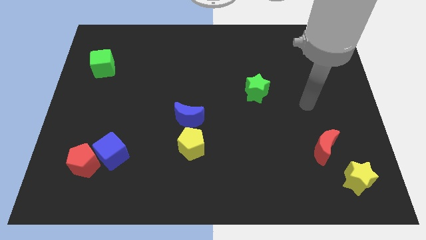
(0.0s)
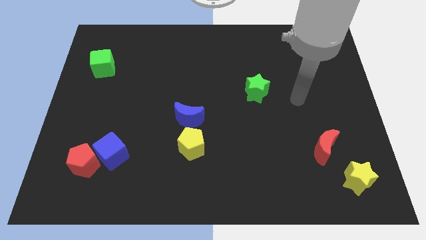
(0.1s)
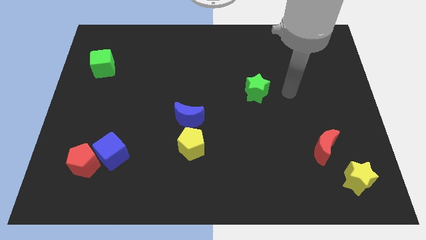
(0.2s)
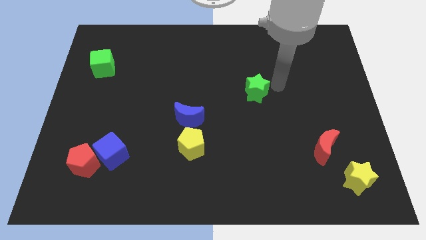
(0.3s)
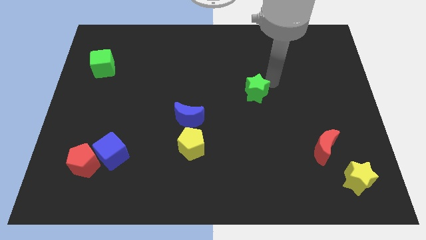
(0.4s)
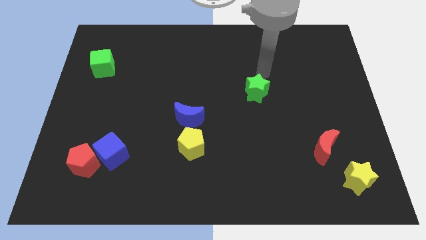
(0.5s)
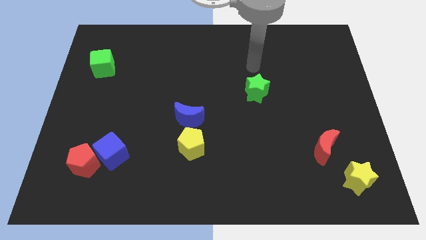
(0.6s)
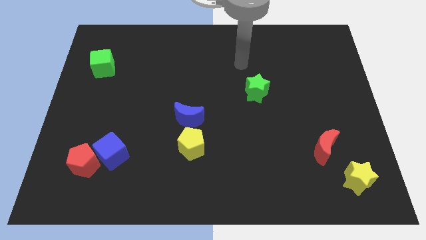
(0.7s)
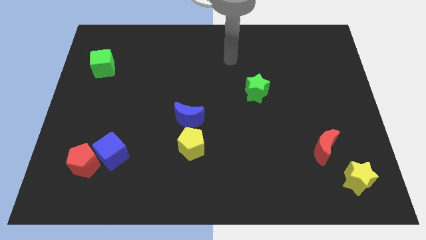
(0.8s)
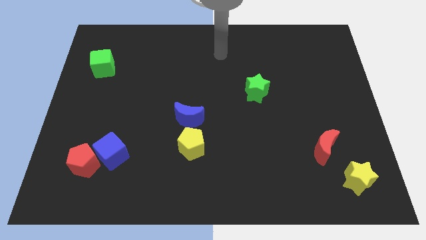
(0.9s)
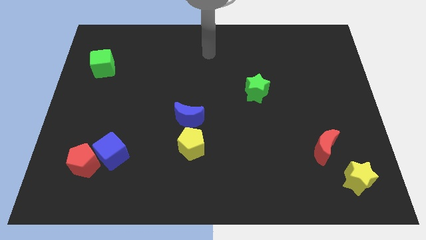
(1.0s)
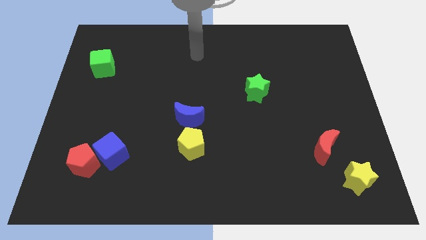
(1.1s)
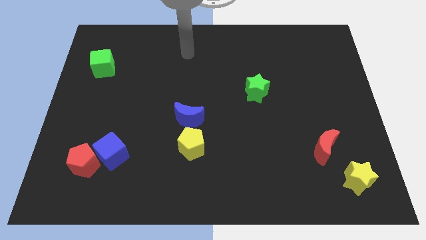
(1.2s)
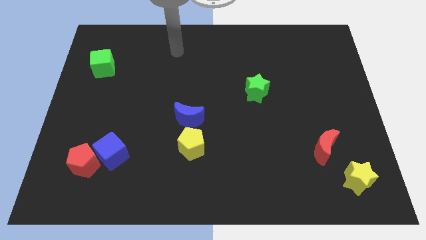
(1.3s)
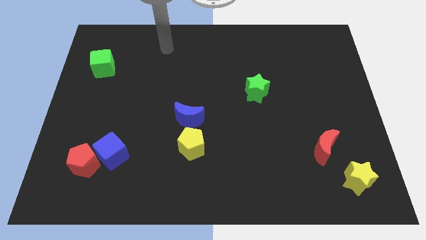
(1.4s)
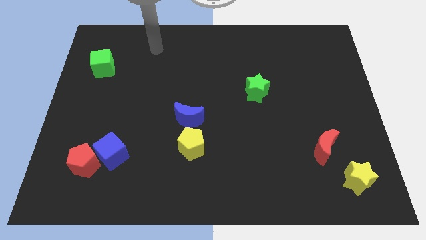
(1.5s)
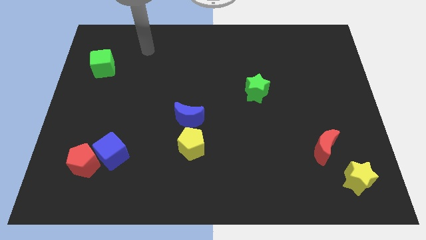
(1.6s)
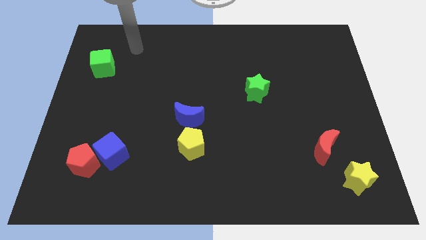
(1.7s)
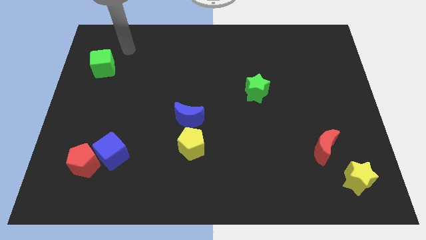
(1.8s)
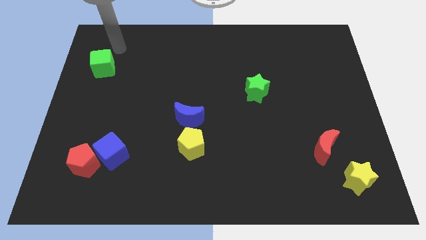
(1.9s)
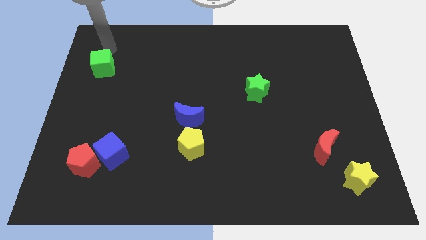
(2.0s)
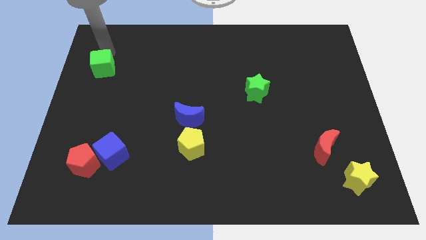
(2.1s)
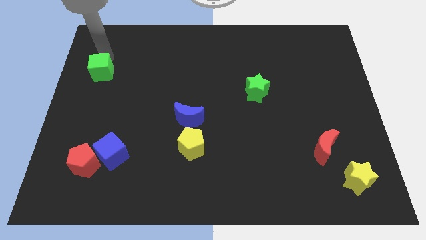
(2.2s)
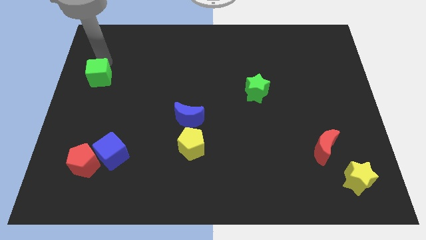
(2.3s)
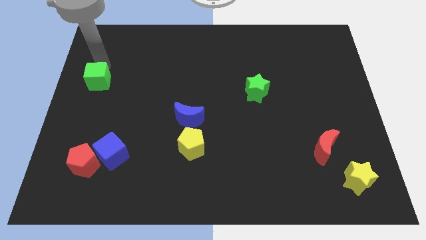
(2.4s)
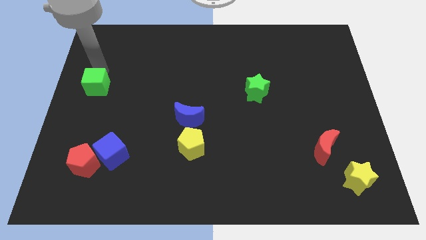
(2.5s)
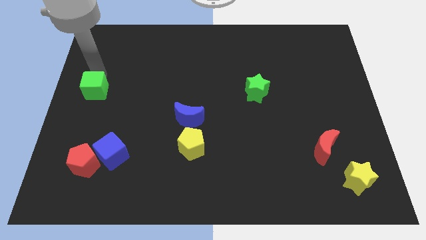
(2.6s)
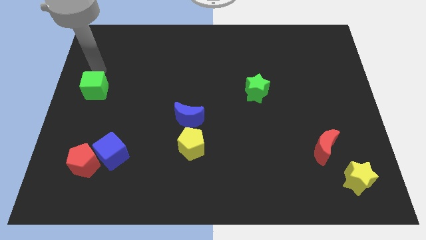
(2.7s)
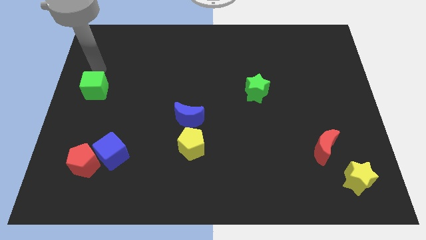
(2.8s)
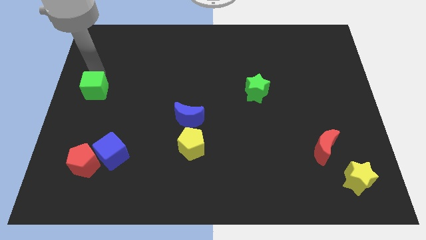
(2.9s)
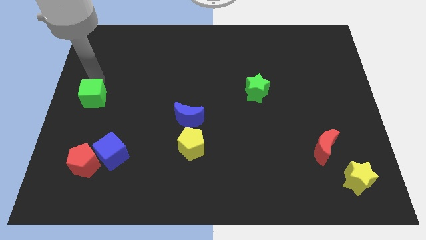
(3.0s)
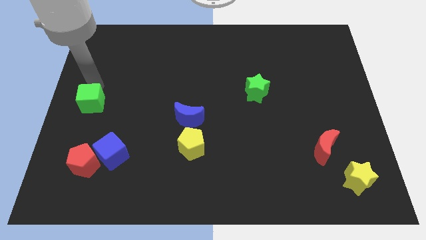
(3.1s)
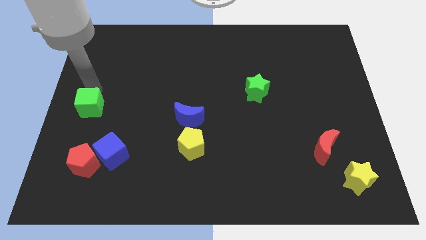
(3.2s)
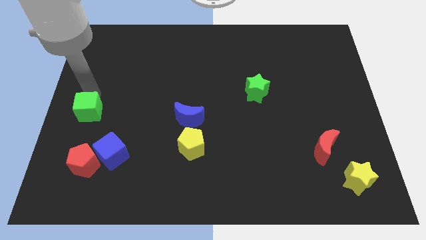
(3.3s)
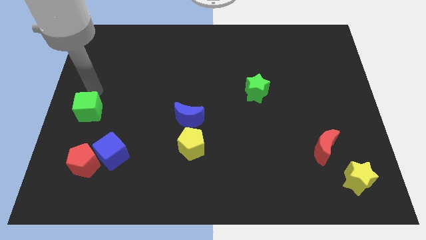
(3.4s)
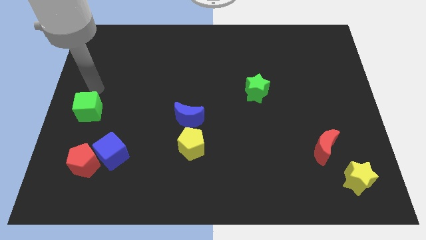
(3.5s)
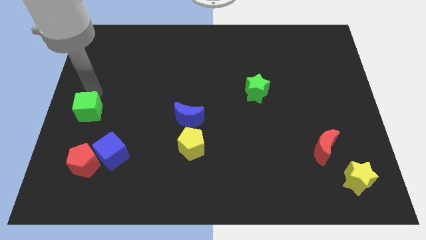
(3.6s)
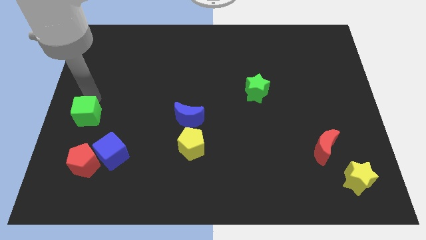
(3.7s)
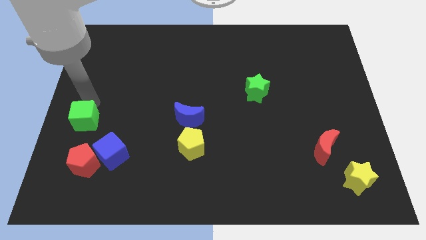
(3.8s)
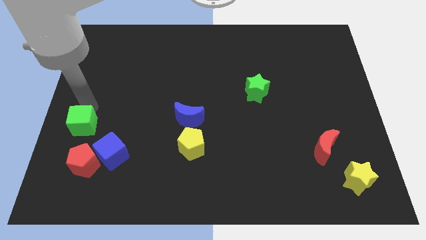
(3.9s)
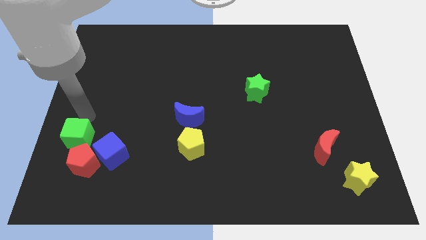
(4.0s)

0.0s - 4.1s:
push the green cube down

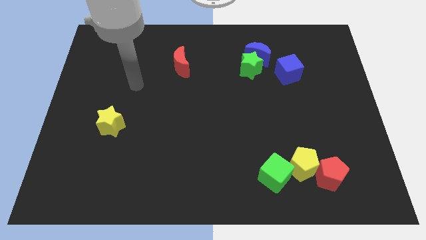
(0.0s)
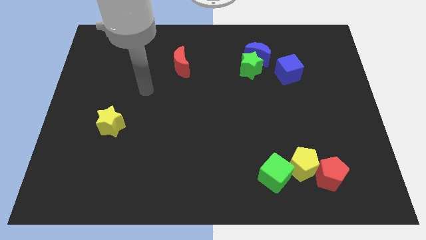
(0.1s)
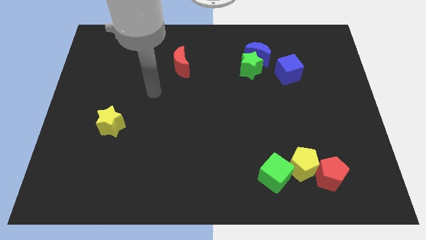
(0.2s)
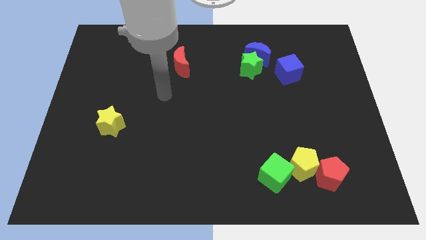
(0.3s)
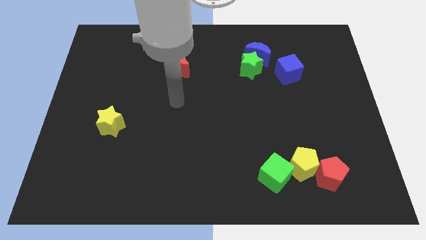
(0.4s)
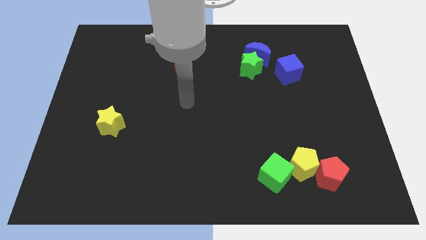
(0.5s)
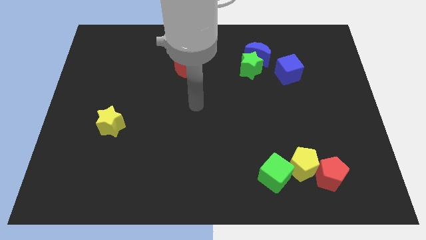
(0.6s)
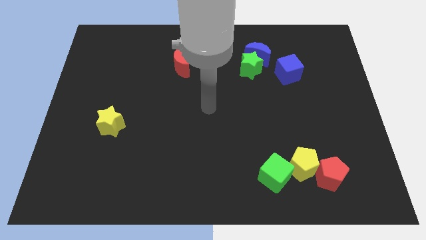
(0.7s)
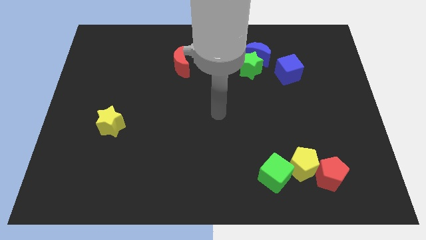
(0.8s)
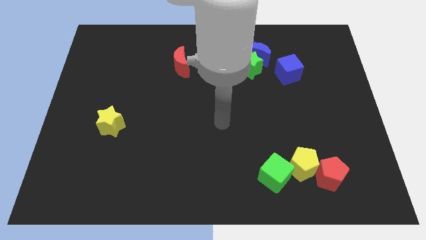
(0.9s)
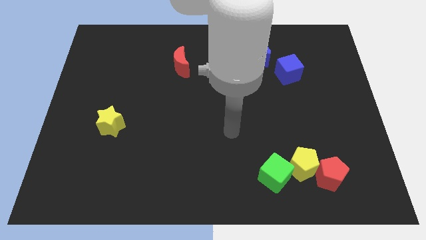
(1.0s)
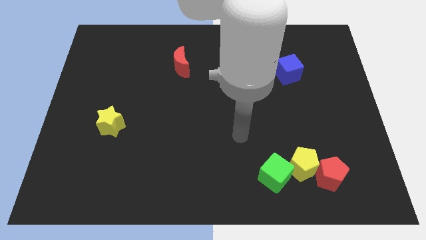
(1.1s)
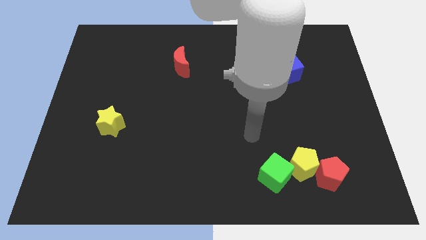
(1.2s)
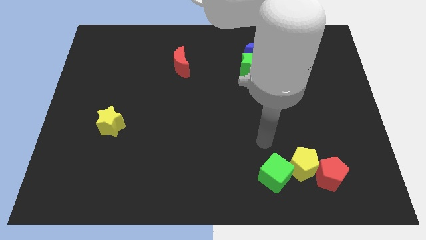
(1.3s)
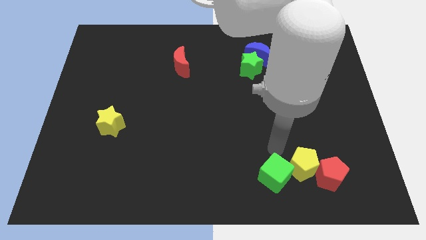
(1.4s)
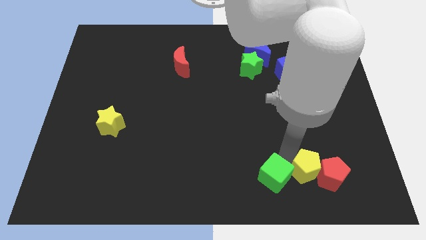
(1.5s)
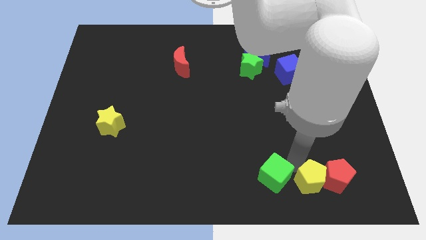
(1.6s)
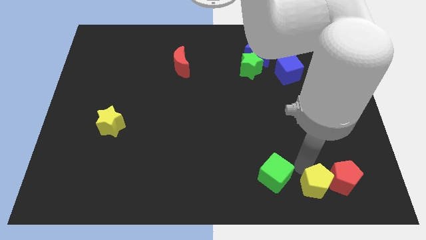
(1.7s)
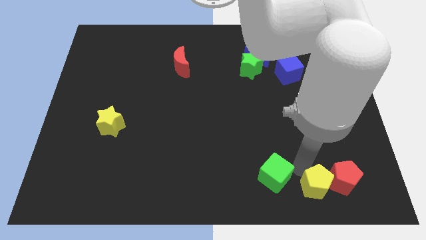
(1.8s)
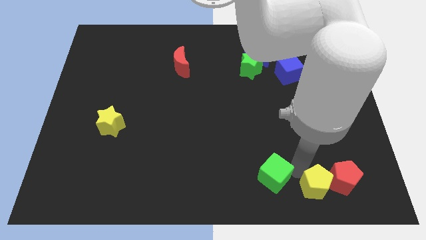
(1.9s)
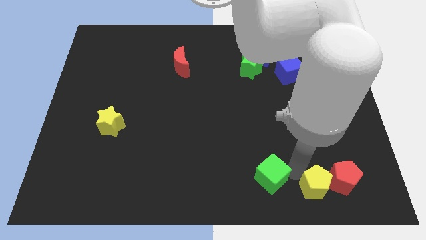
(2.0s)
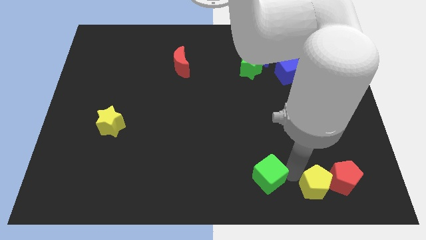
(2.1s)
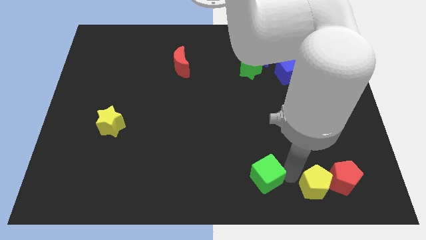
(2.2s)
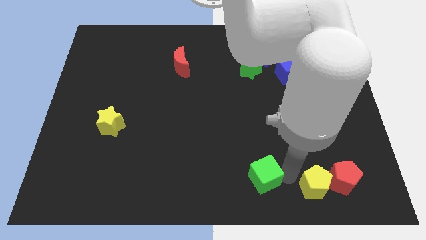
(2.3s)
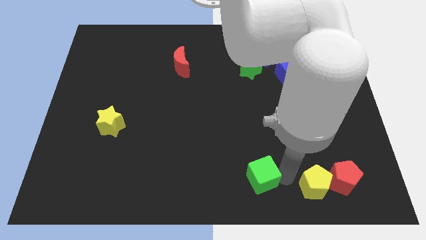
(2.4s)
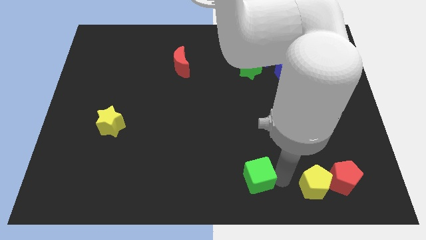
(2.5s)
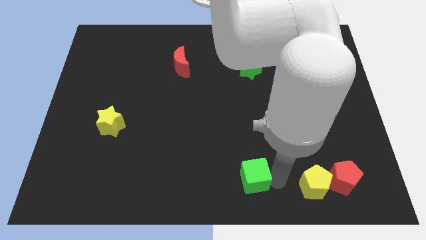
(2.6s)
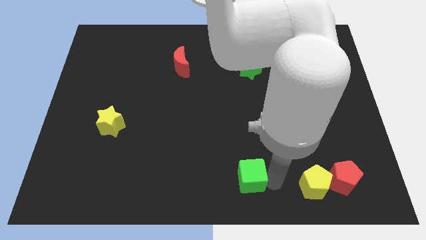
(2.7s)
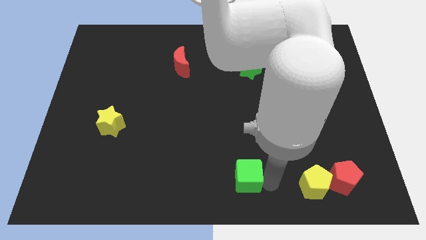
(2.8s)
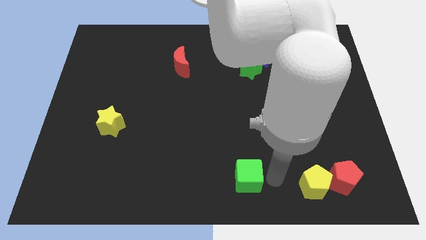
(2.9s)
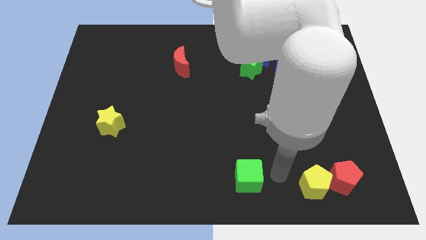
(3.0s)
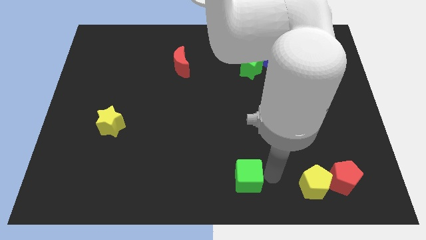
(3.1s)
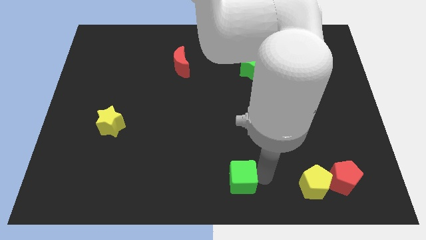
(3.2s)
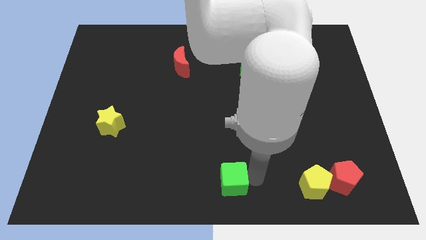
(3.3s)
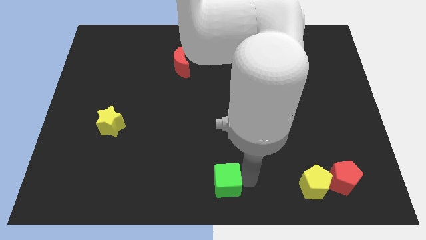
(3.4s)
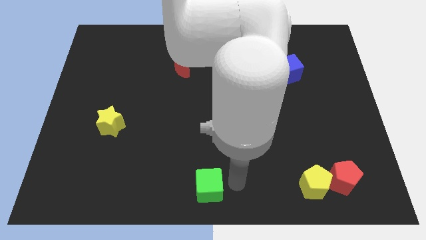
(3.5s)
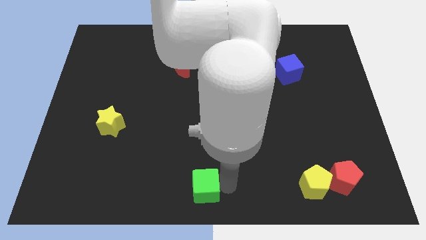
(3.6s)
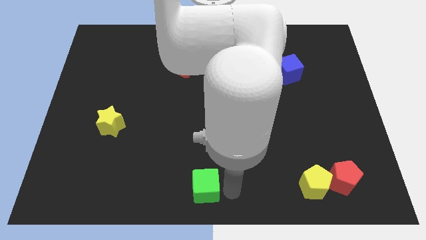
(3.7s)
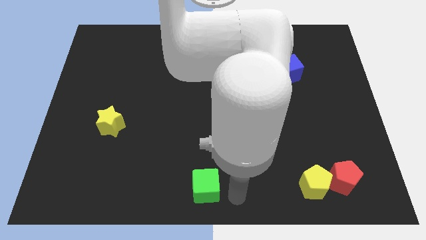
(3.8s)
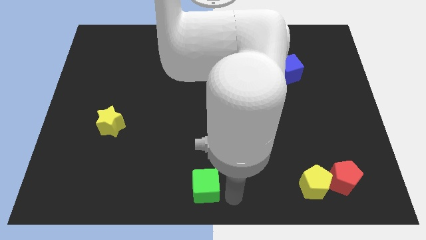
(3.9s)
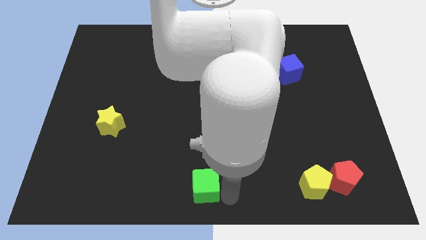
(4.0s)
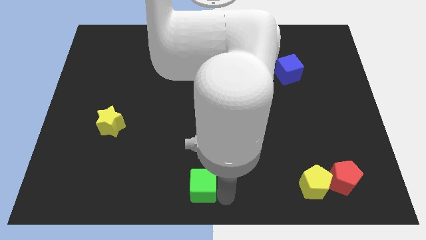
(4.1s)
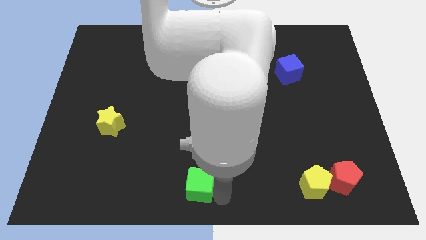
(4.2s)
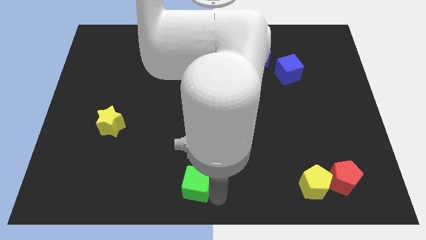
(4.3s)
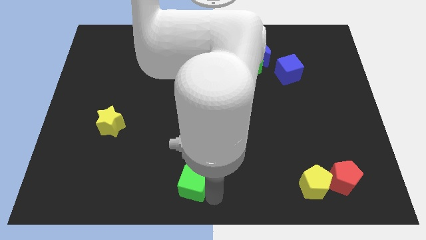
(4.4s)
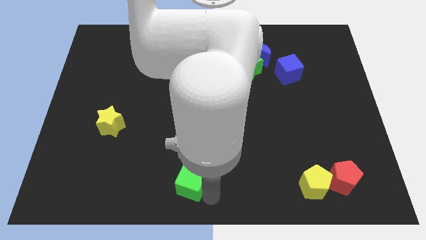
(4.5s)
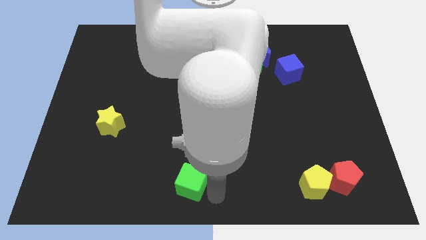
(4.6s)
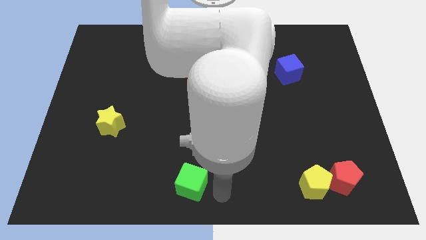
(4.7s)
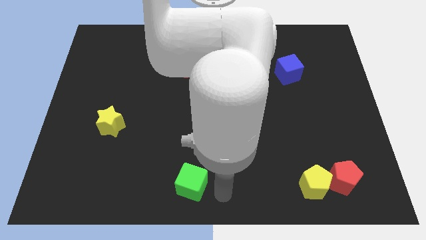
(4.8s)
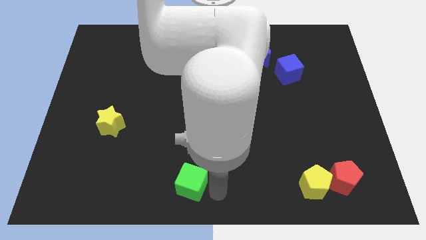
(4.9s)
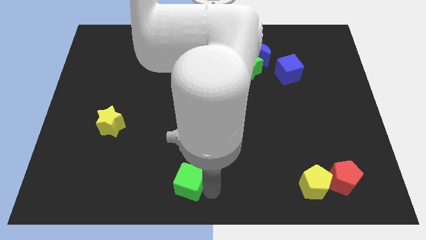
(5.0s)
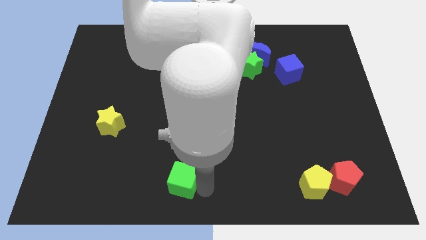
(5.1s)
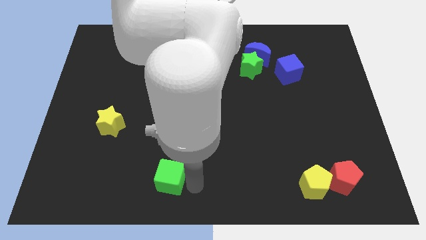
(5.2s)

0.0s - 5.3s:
move the green cube left
